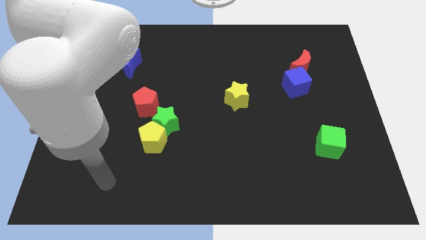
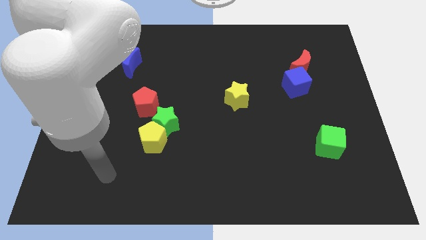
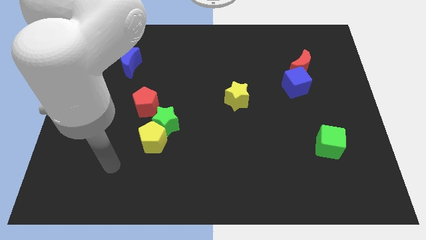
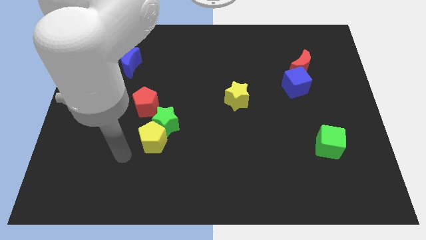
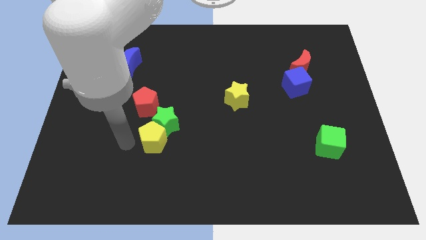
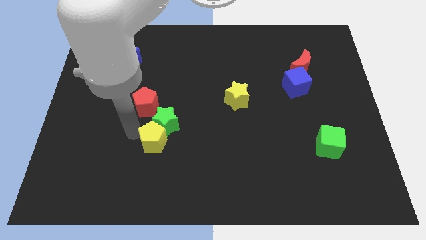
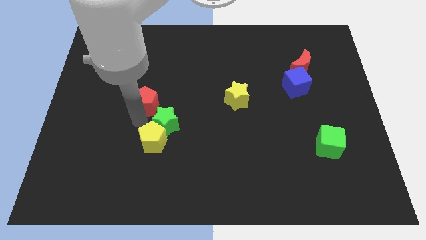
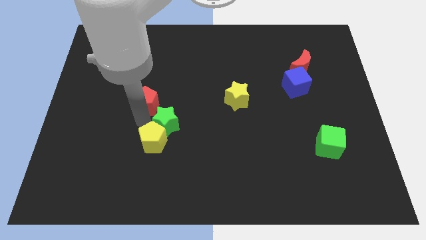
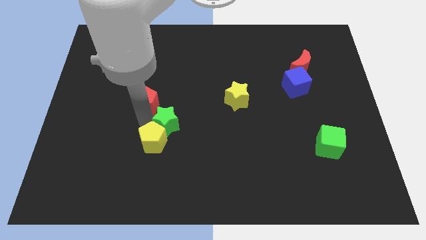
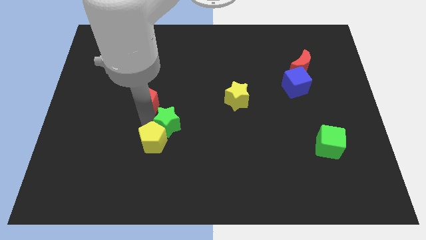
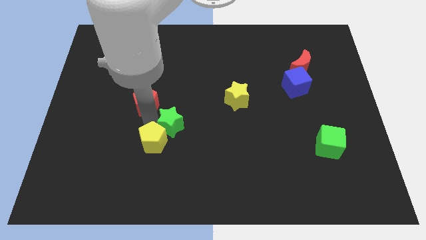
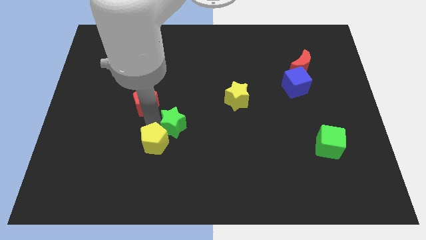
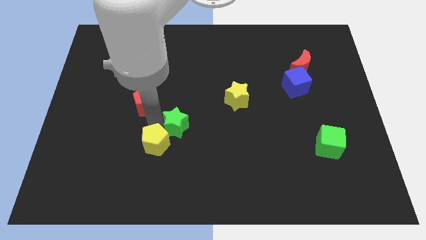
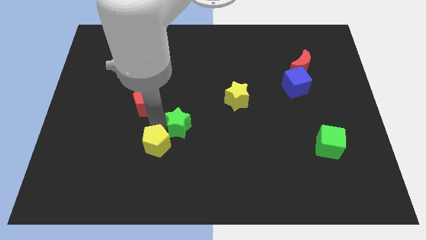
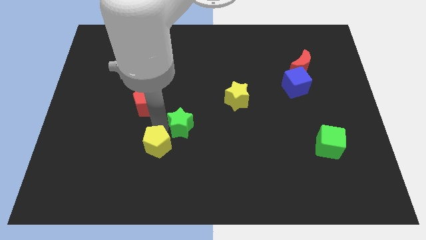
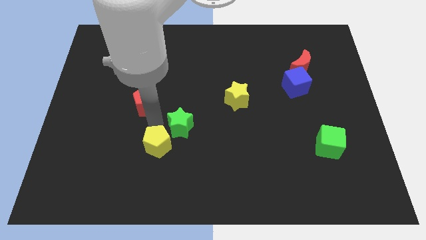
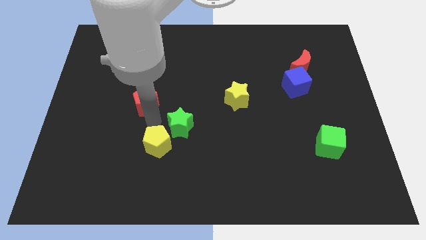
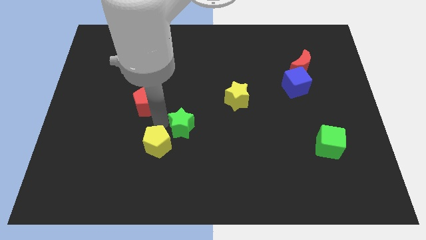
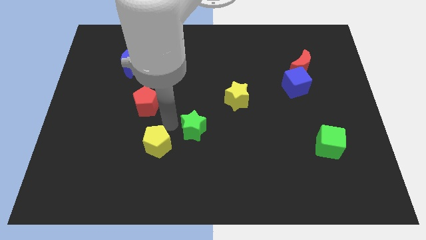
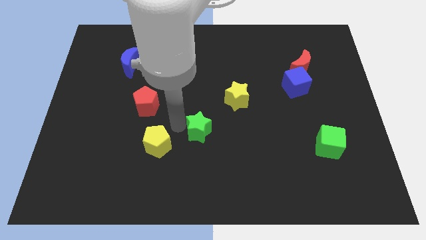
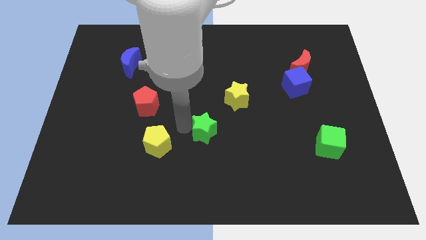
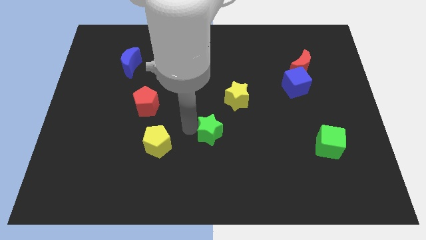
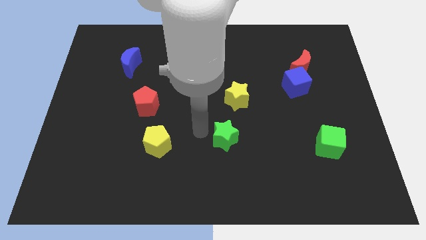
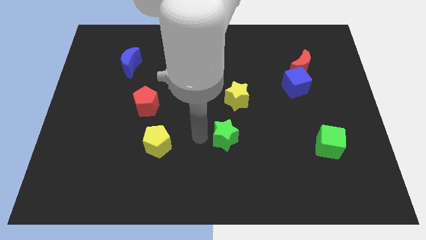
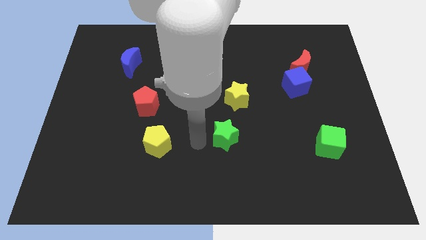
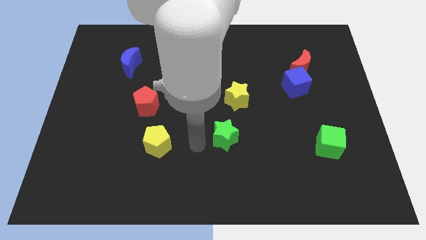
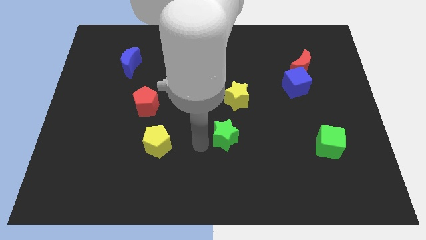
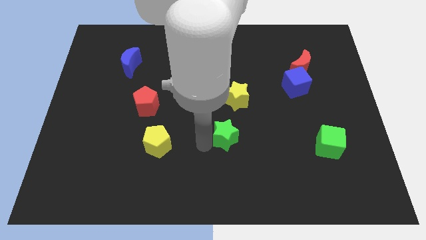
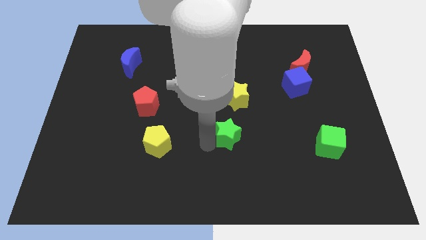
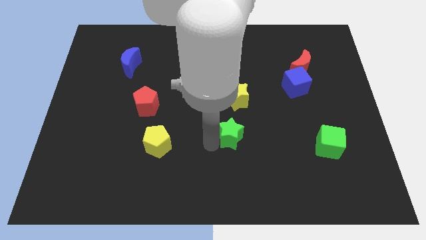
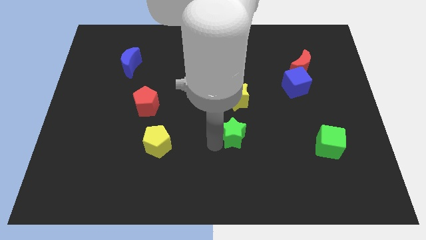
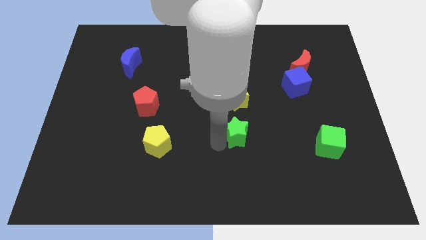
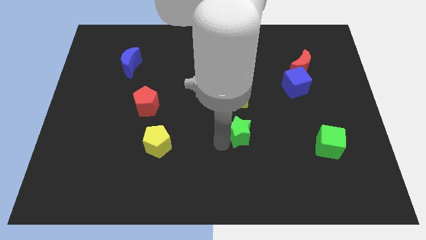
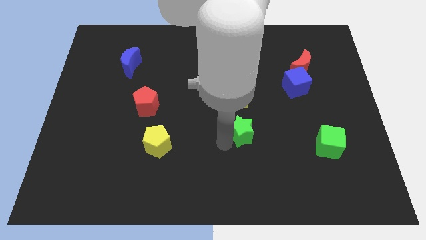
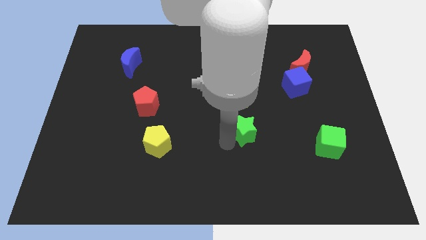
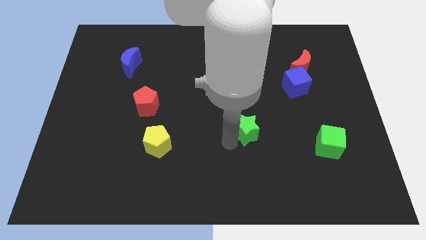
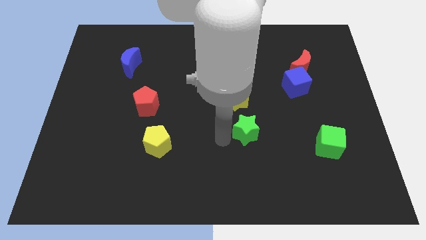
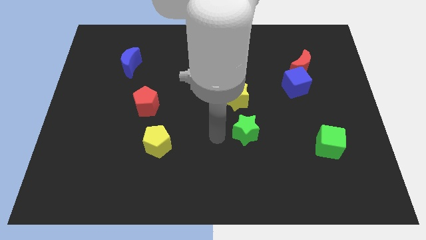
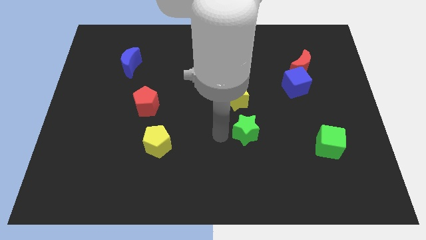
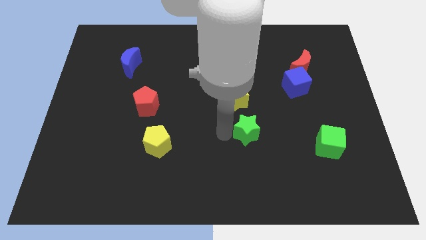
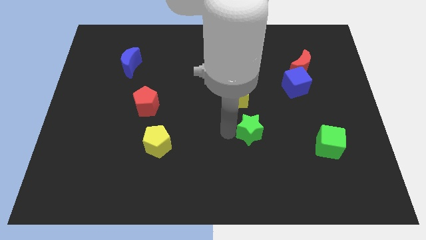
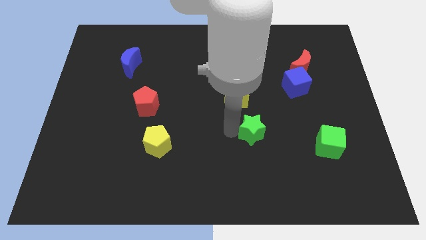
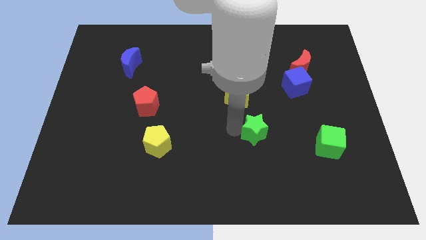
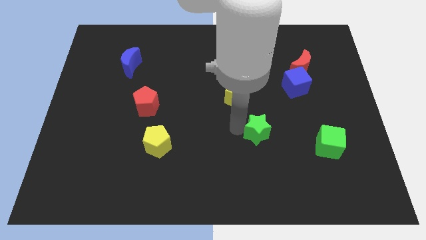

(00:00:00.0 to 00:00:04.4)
slide the green star to the right

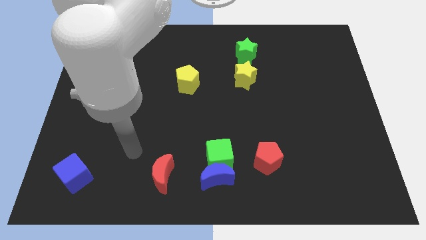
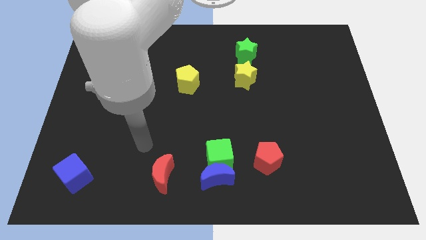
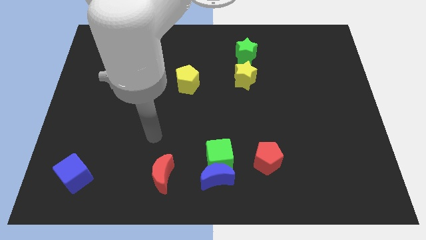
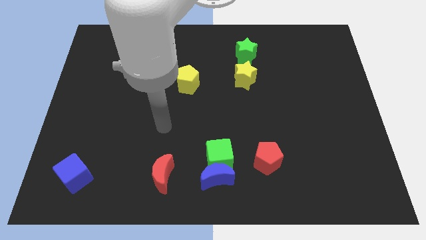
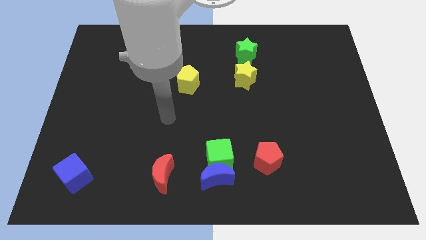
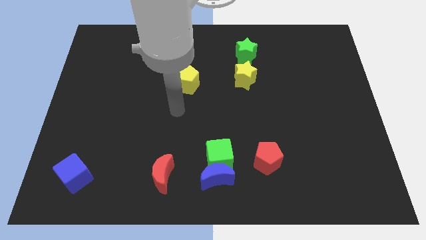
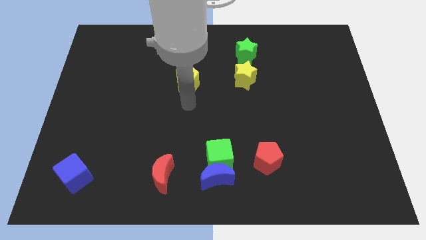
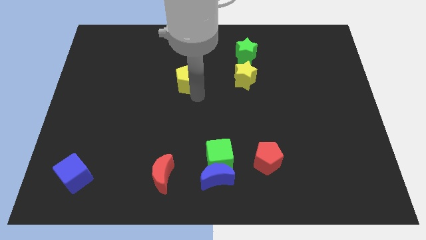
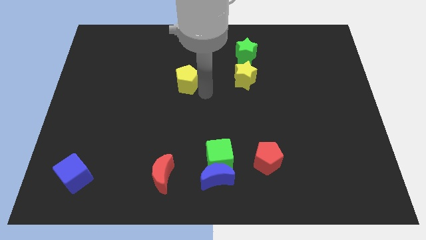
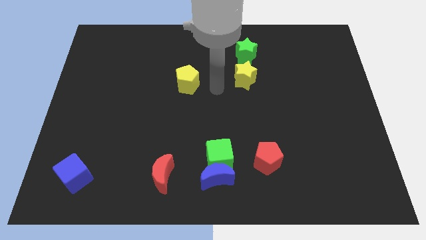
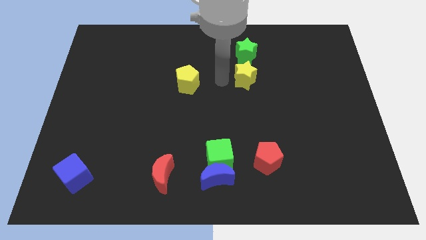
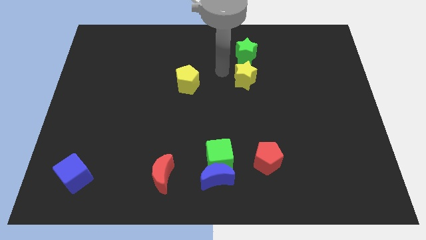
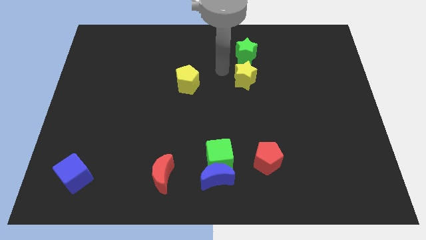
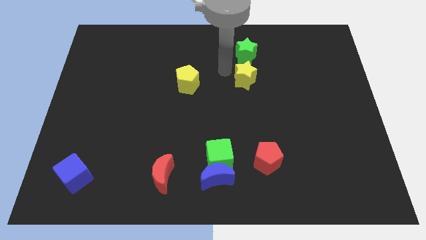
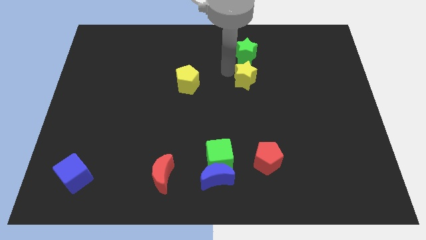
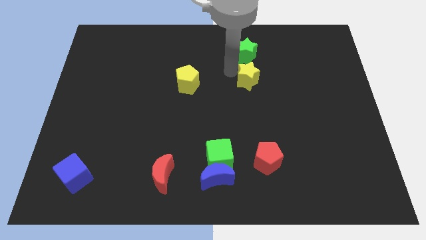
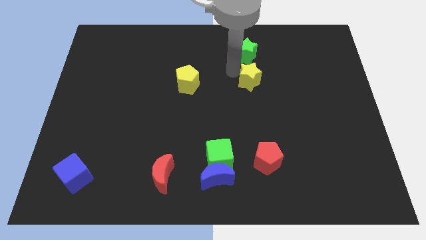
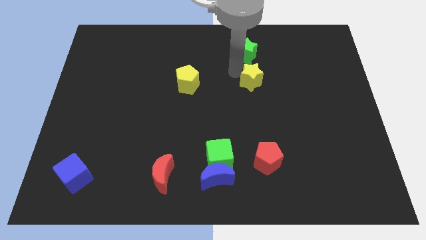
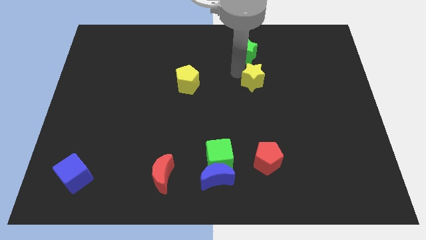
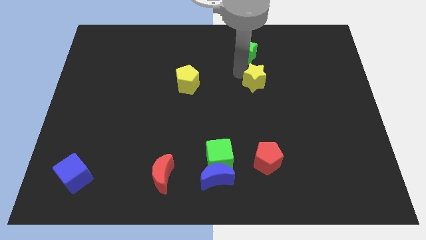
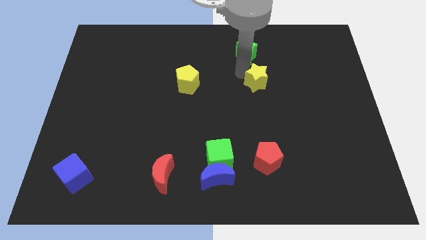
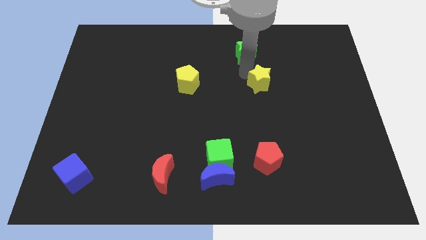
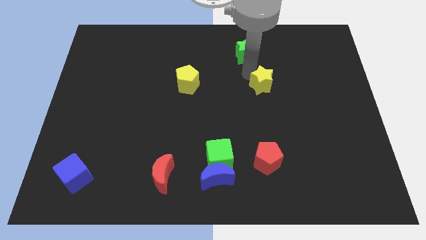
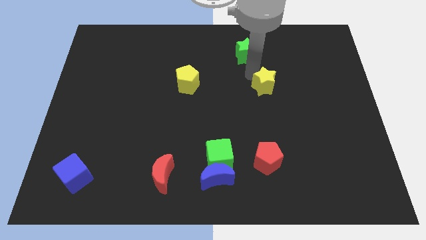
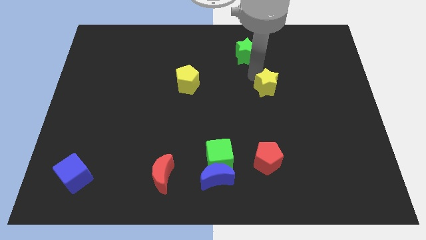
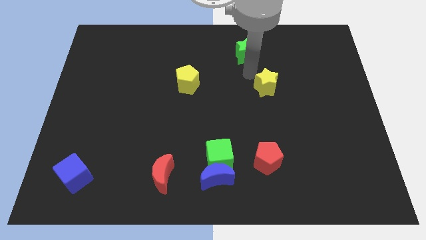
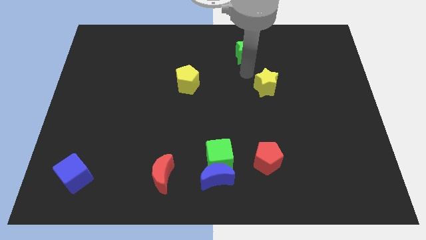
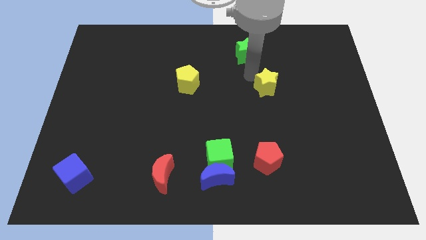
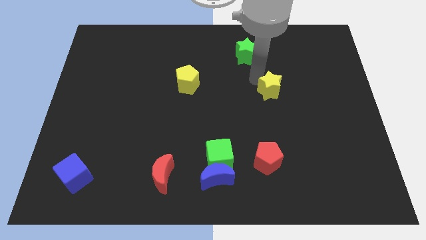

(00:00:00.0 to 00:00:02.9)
slide the yellow star down and then right a little

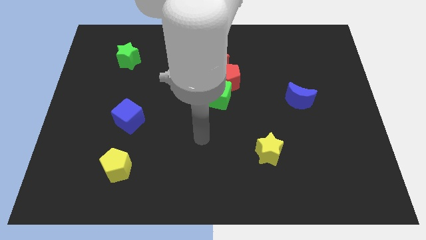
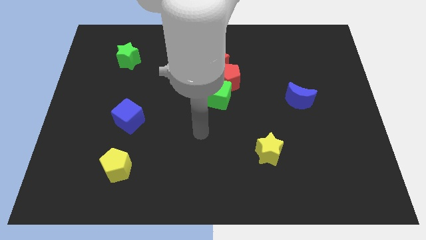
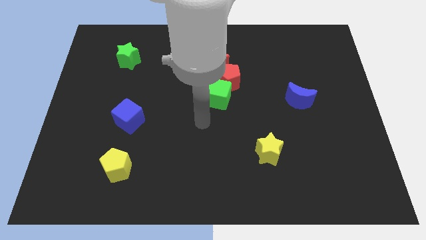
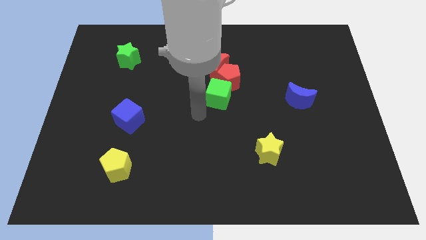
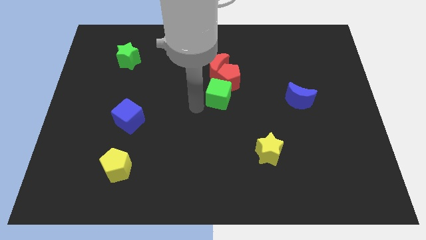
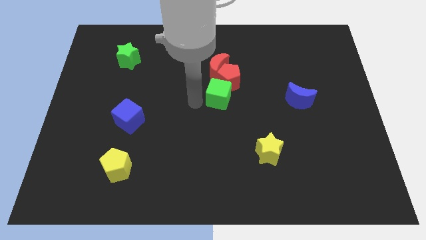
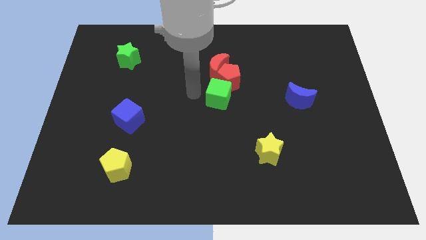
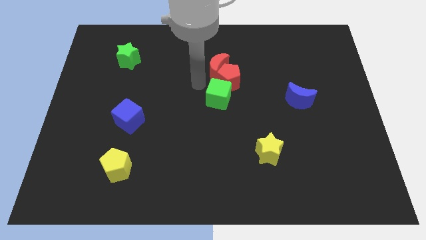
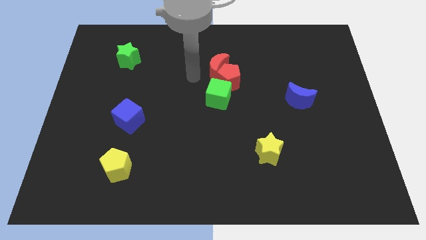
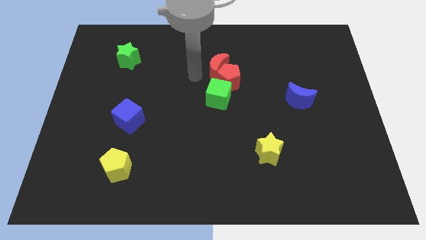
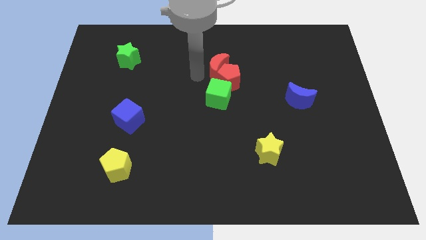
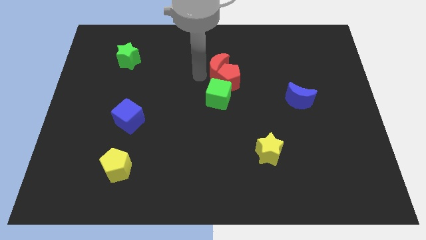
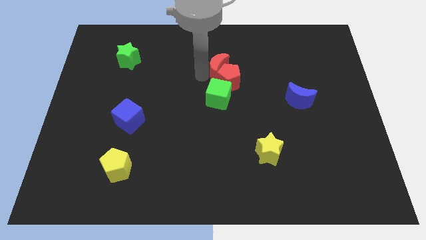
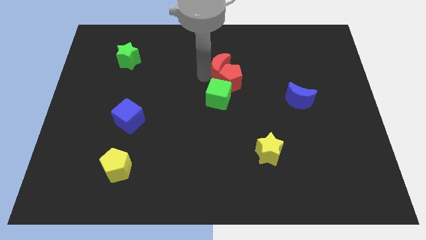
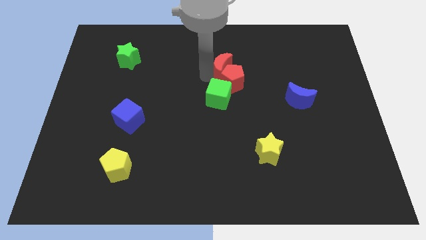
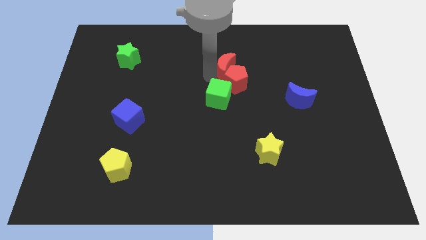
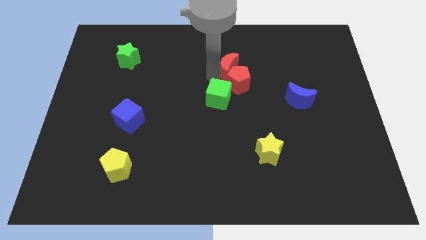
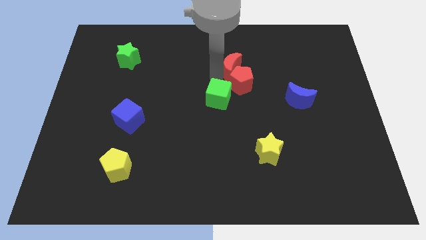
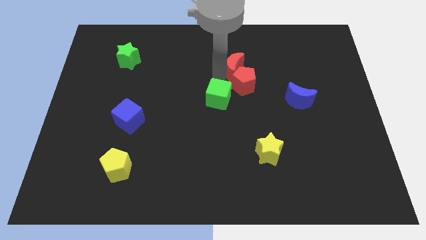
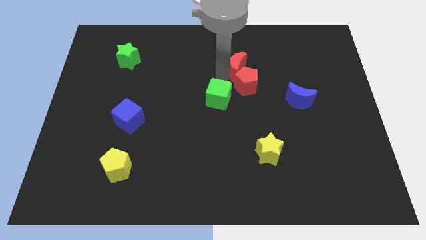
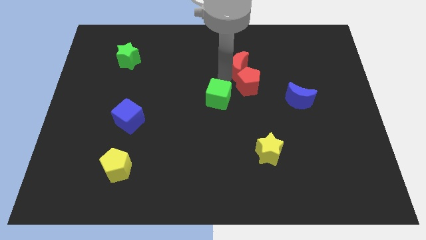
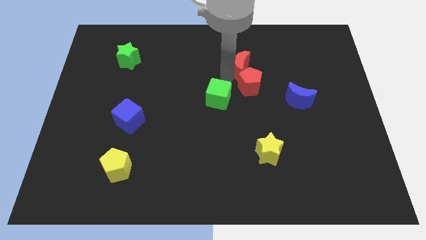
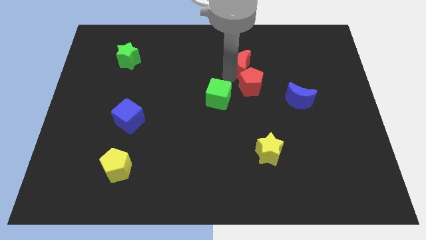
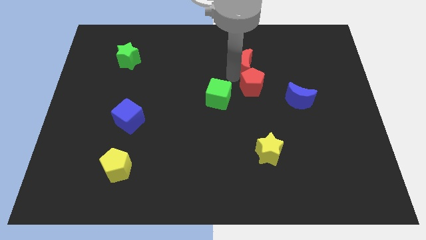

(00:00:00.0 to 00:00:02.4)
slightly slide the red moon right
